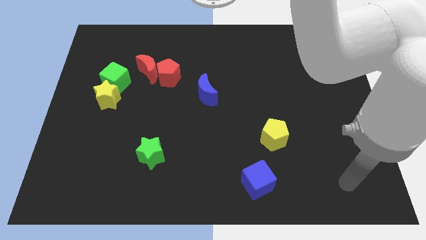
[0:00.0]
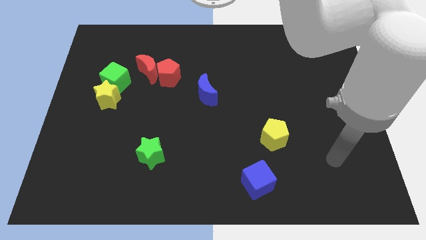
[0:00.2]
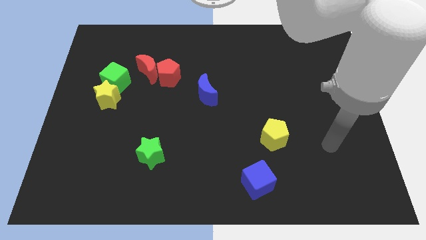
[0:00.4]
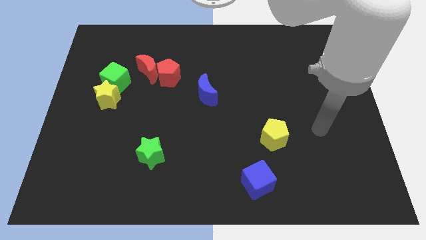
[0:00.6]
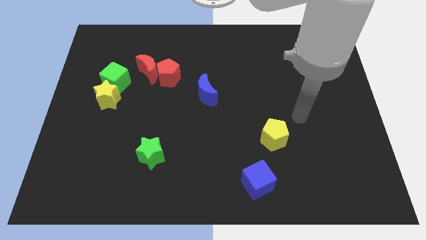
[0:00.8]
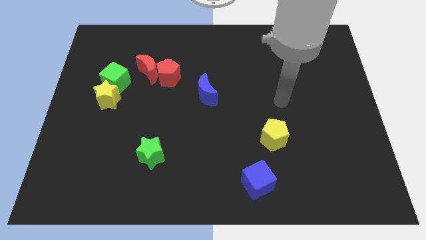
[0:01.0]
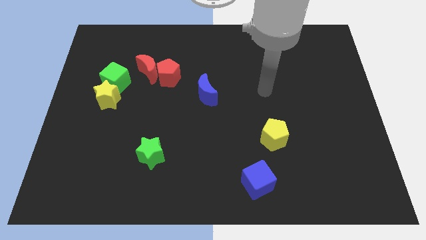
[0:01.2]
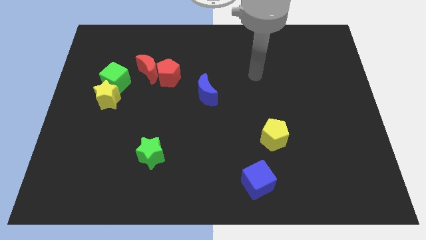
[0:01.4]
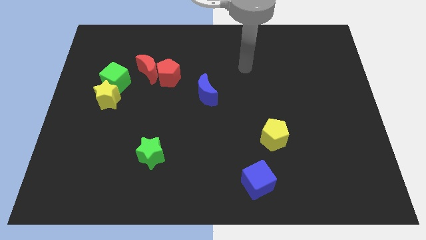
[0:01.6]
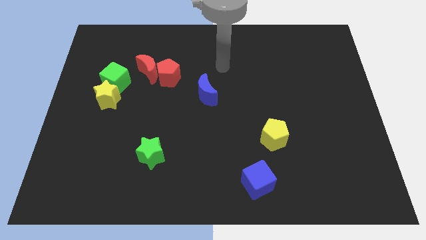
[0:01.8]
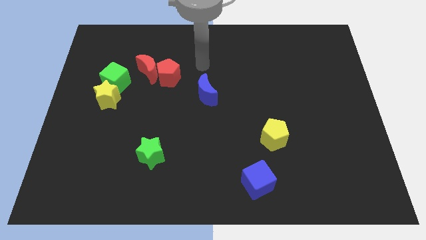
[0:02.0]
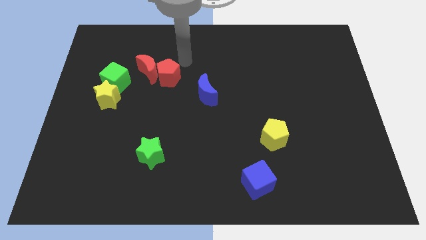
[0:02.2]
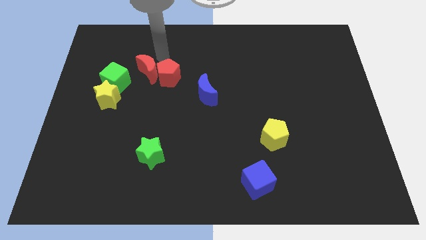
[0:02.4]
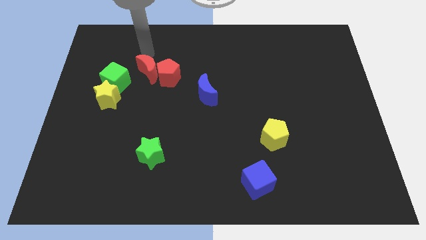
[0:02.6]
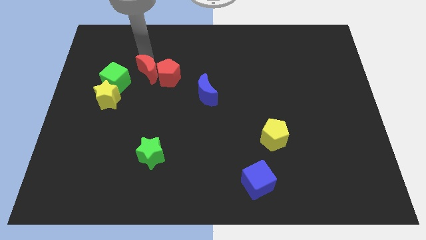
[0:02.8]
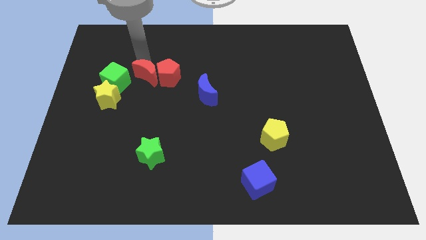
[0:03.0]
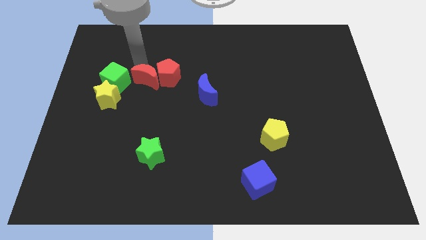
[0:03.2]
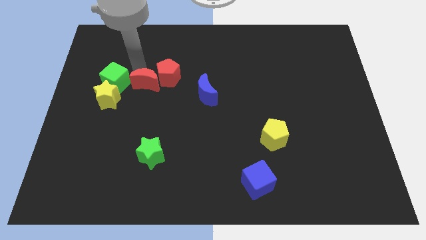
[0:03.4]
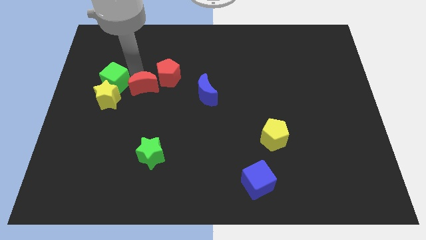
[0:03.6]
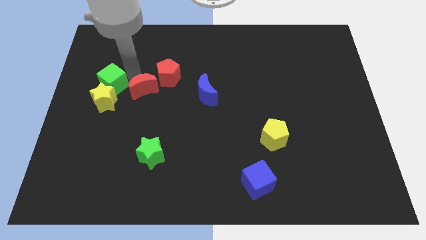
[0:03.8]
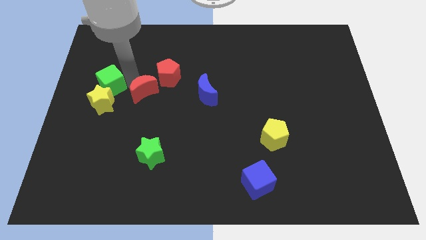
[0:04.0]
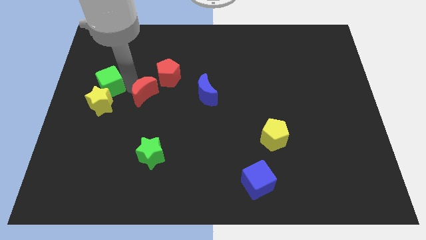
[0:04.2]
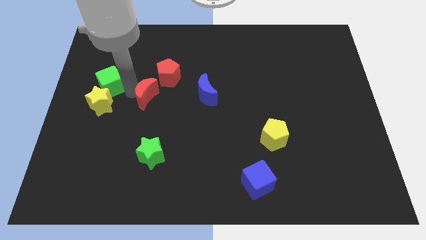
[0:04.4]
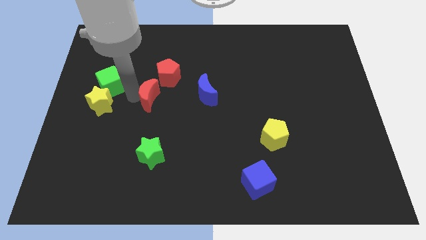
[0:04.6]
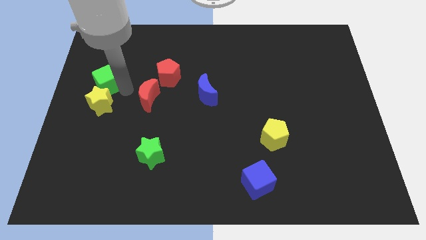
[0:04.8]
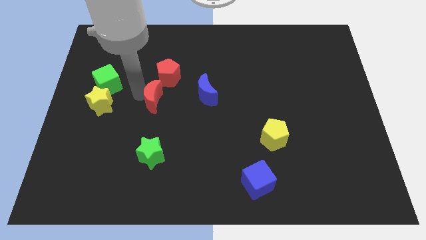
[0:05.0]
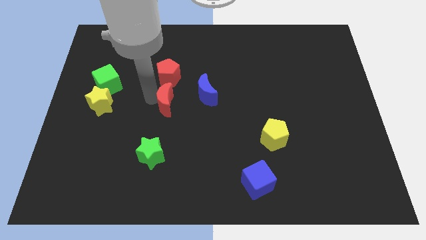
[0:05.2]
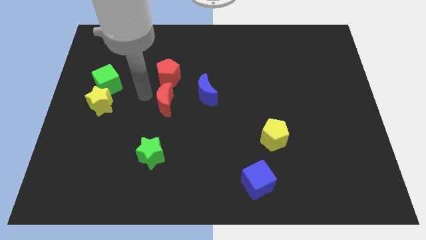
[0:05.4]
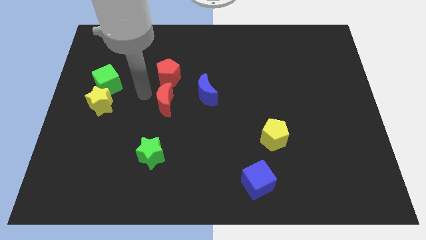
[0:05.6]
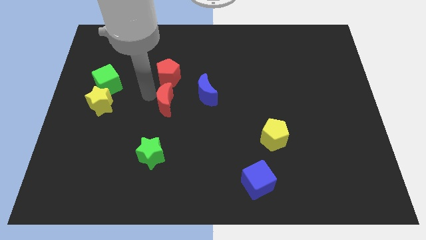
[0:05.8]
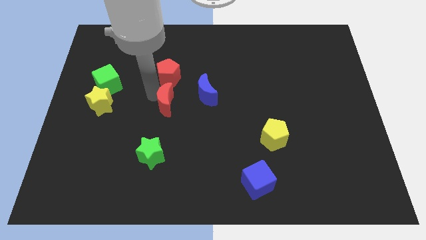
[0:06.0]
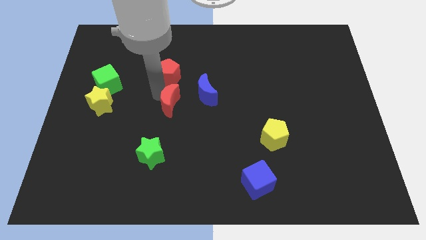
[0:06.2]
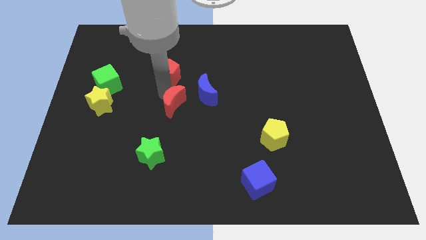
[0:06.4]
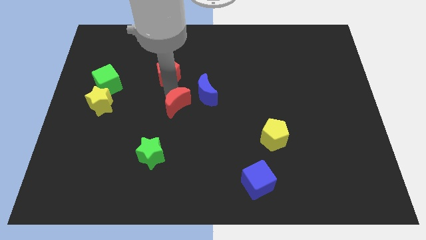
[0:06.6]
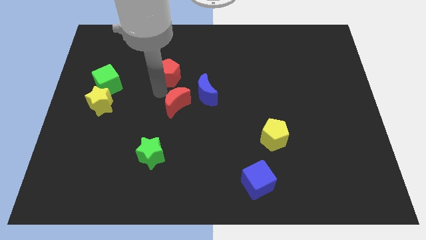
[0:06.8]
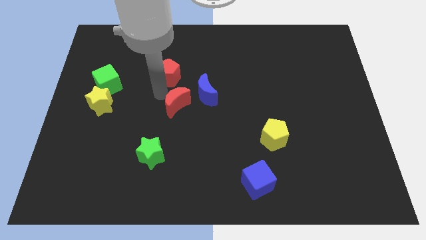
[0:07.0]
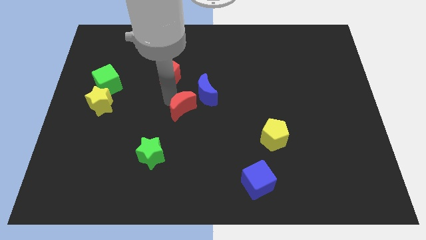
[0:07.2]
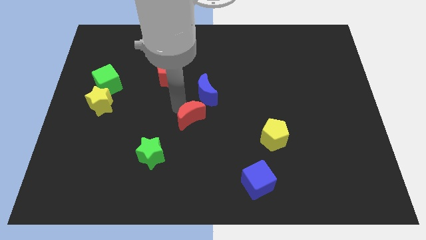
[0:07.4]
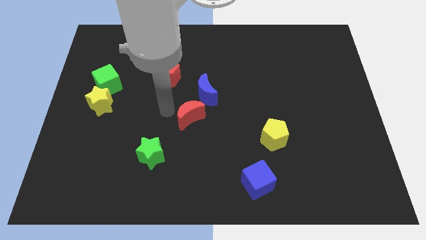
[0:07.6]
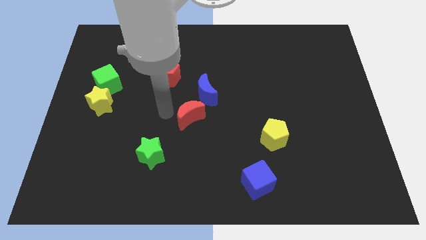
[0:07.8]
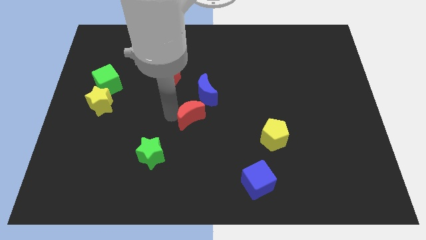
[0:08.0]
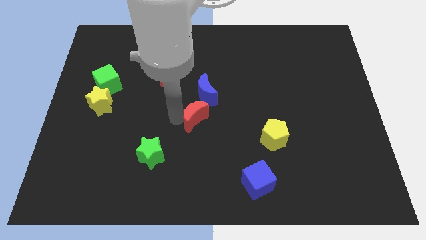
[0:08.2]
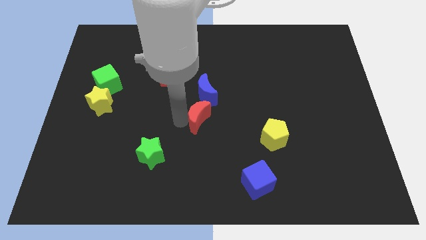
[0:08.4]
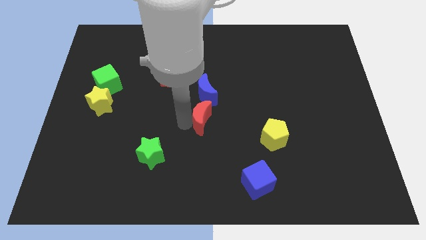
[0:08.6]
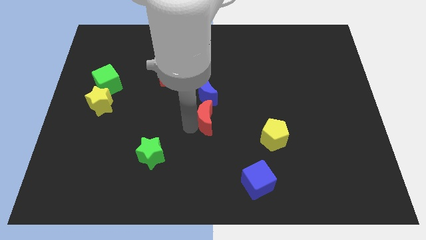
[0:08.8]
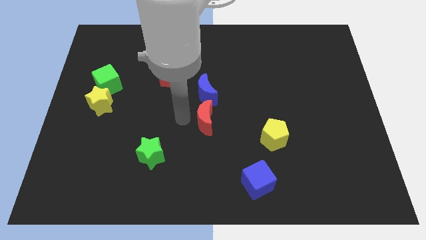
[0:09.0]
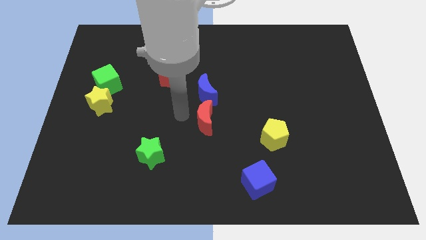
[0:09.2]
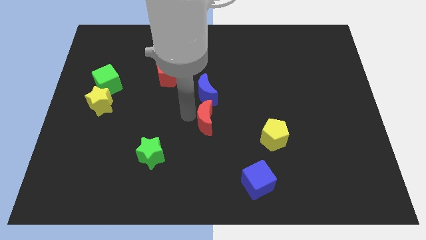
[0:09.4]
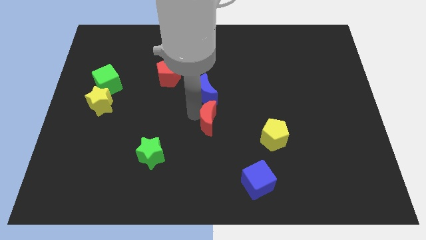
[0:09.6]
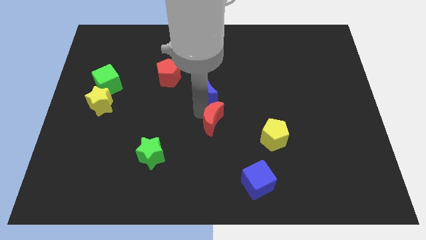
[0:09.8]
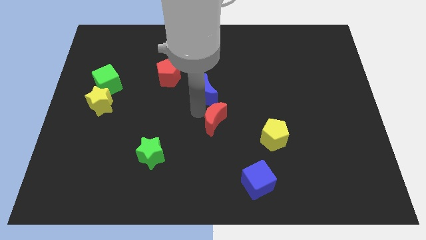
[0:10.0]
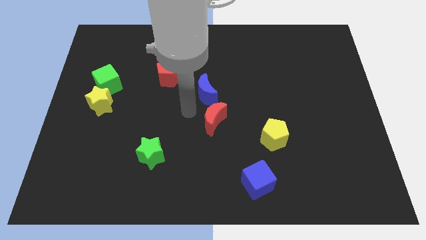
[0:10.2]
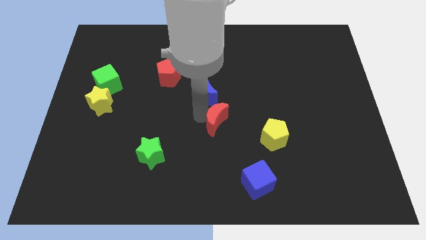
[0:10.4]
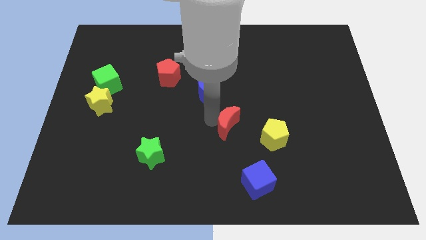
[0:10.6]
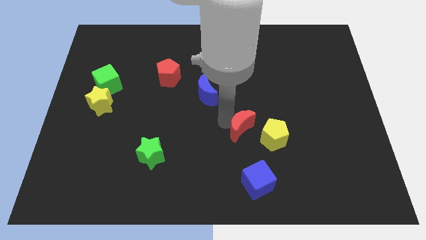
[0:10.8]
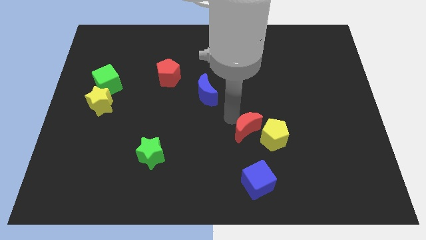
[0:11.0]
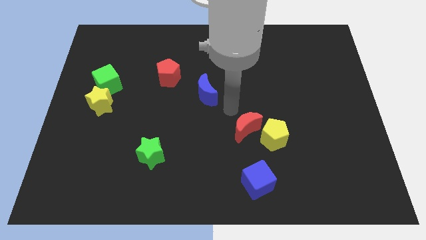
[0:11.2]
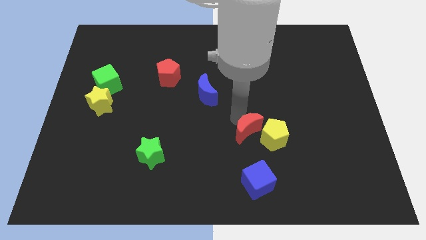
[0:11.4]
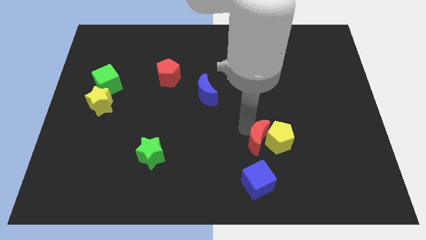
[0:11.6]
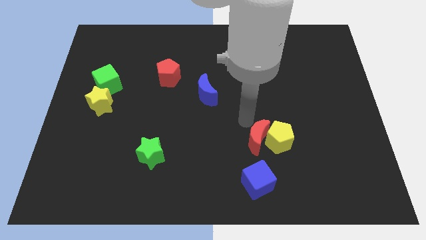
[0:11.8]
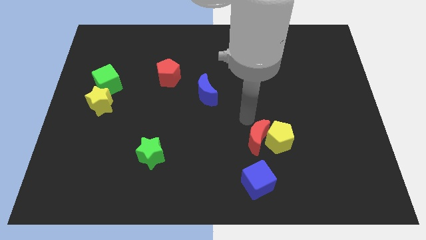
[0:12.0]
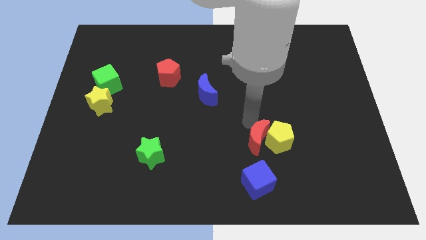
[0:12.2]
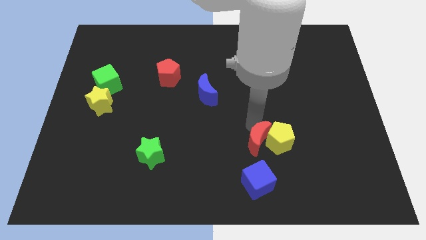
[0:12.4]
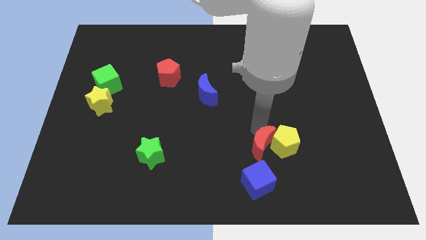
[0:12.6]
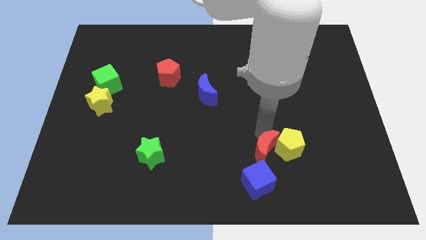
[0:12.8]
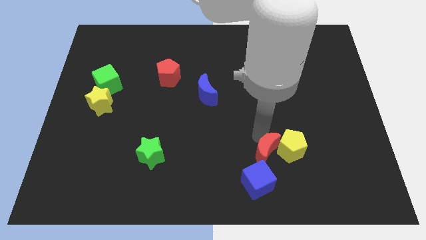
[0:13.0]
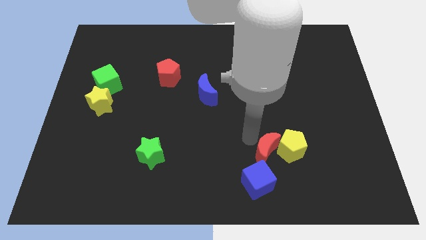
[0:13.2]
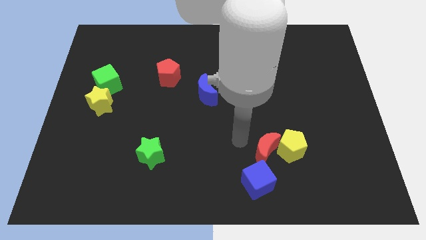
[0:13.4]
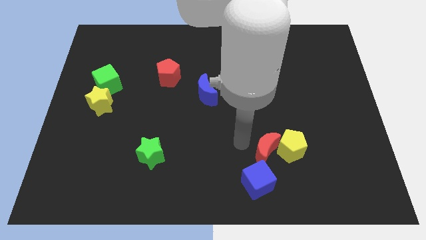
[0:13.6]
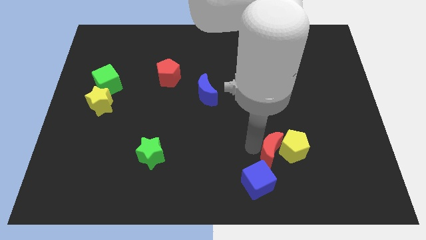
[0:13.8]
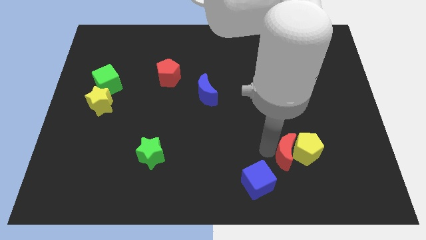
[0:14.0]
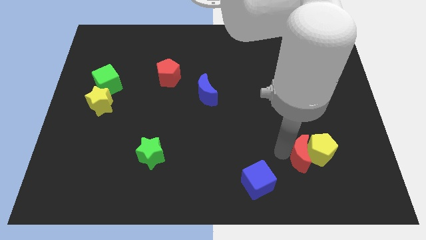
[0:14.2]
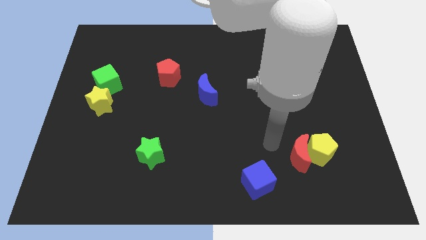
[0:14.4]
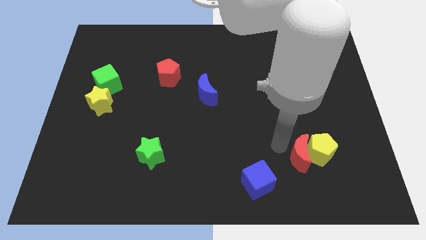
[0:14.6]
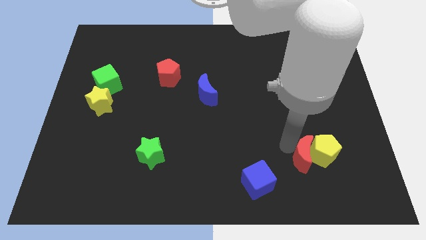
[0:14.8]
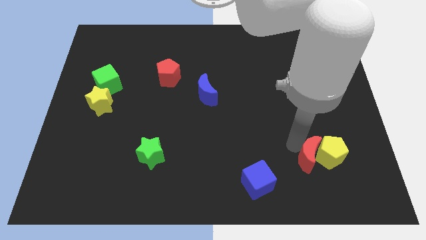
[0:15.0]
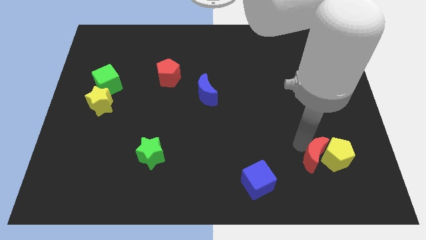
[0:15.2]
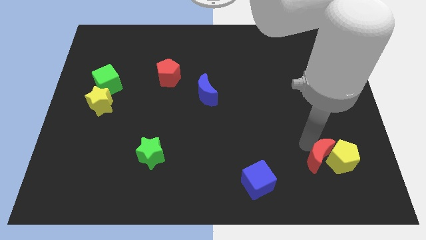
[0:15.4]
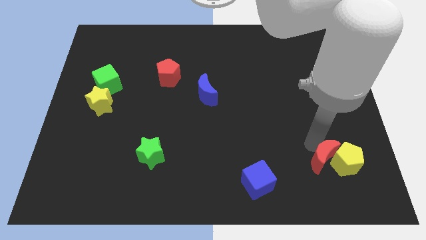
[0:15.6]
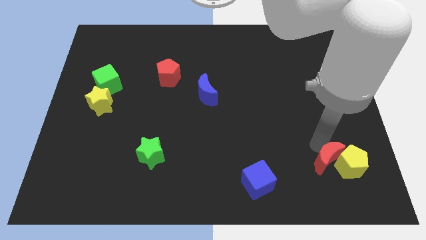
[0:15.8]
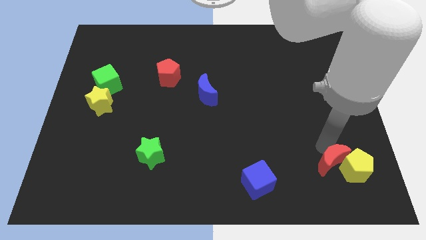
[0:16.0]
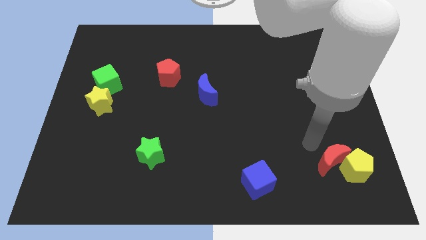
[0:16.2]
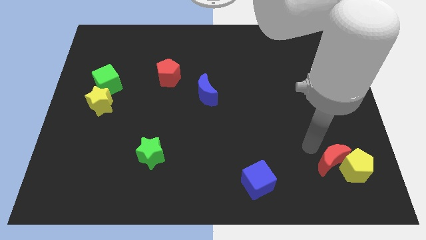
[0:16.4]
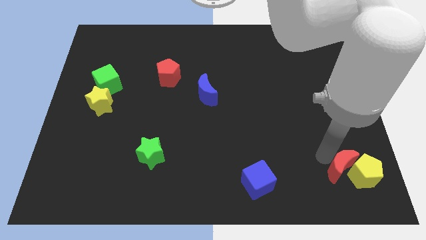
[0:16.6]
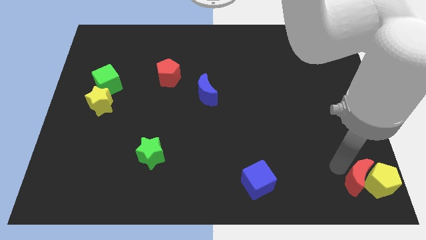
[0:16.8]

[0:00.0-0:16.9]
move the red moon to the lower right corner
